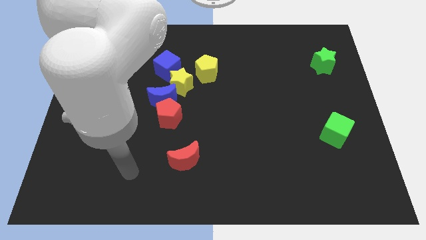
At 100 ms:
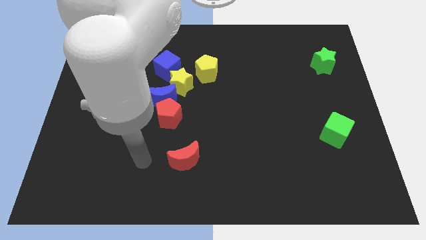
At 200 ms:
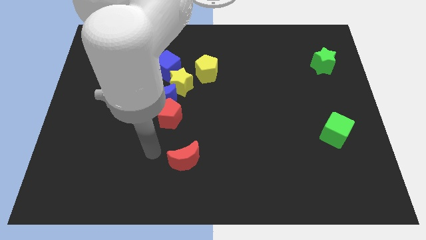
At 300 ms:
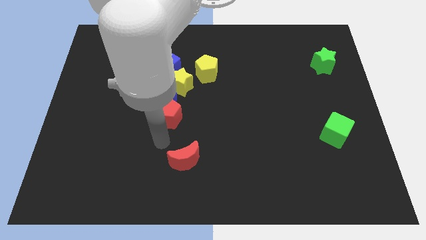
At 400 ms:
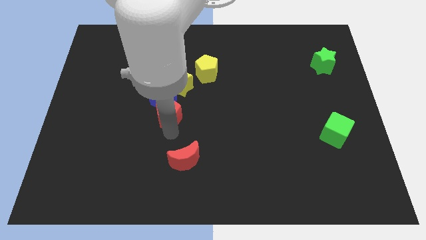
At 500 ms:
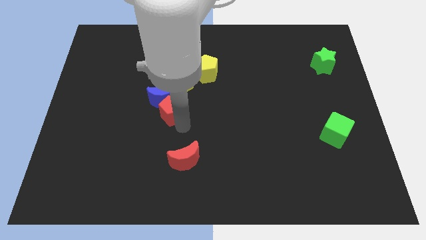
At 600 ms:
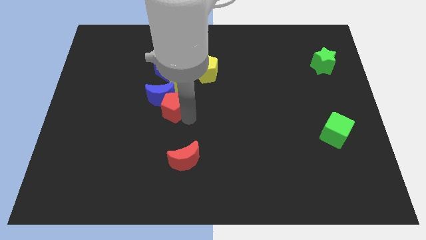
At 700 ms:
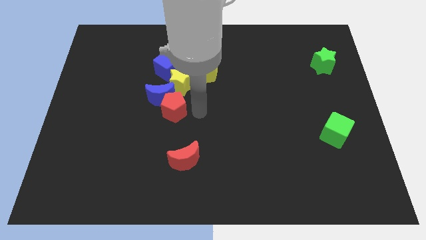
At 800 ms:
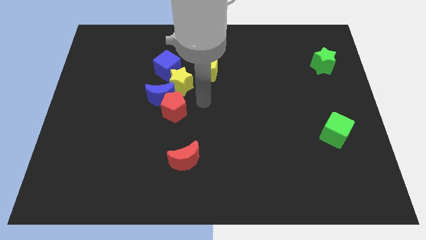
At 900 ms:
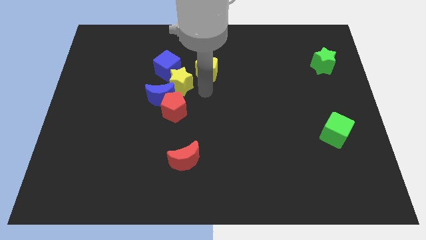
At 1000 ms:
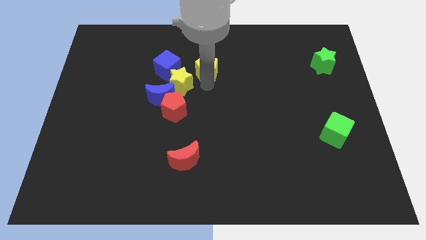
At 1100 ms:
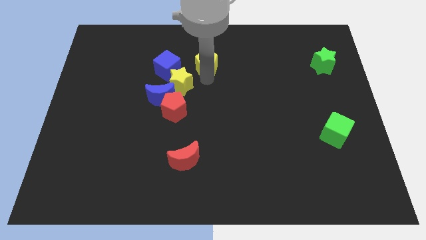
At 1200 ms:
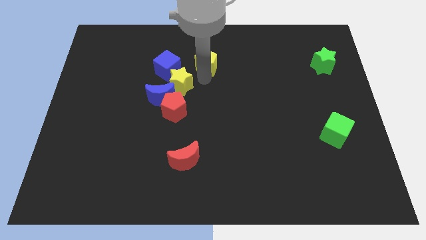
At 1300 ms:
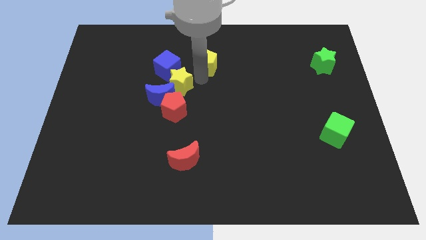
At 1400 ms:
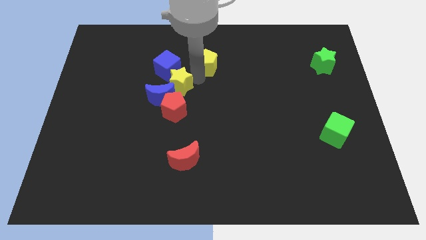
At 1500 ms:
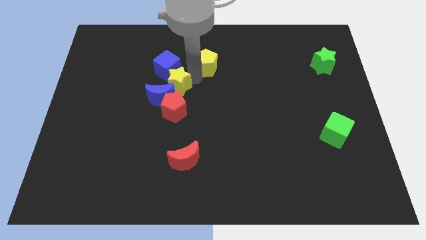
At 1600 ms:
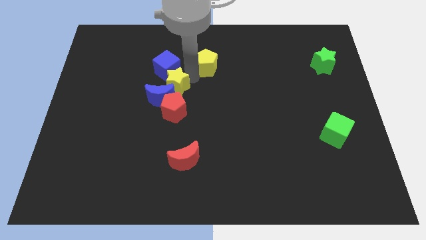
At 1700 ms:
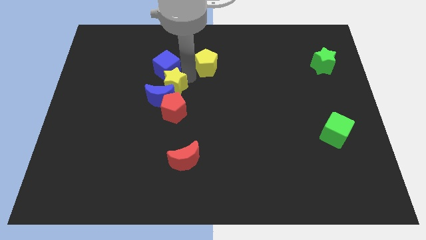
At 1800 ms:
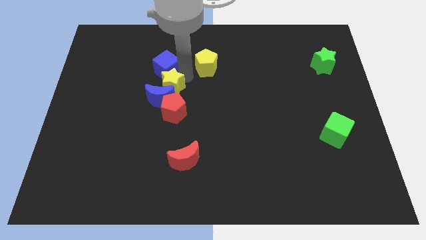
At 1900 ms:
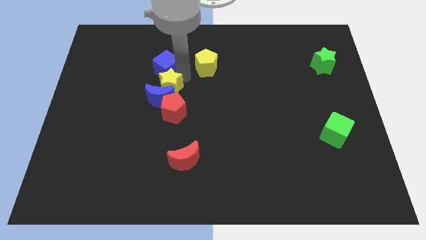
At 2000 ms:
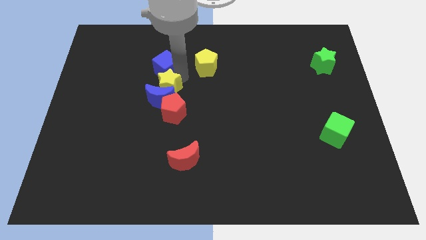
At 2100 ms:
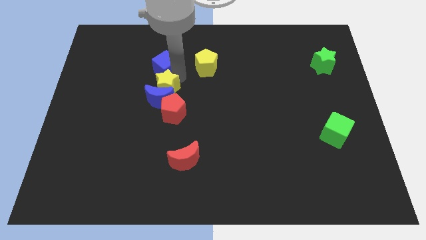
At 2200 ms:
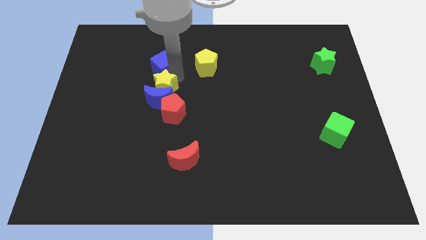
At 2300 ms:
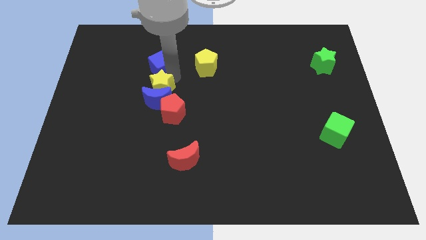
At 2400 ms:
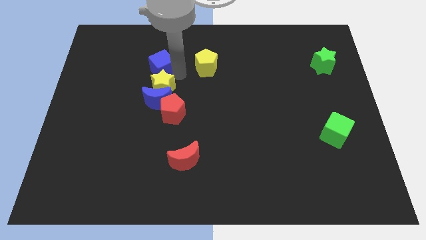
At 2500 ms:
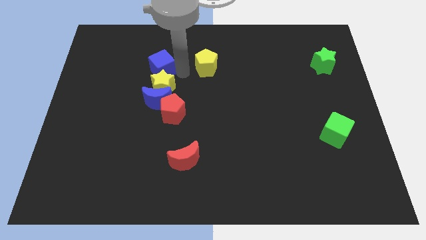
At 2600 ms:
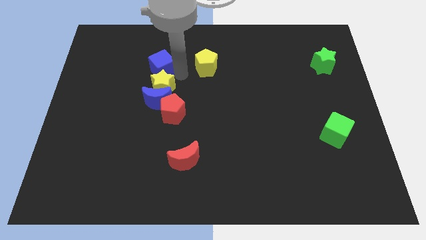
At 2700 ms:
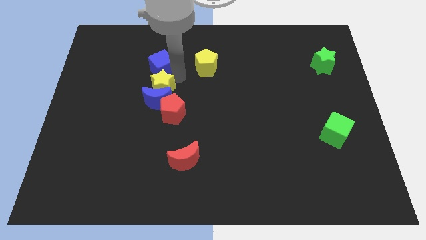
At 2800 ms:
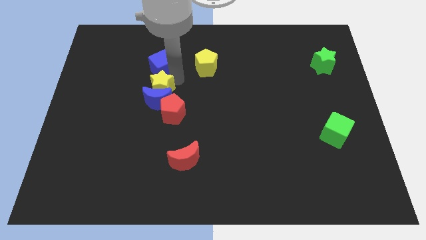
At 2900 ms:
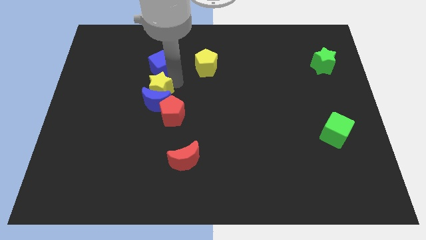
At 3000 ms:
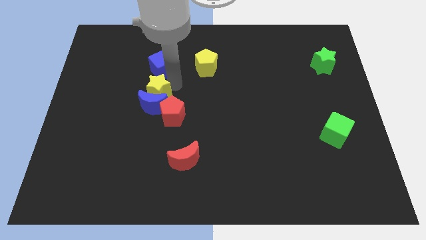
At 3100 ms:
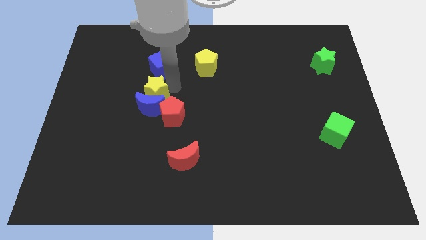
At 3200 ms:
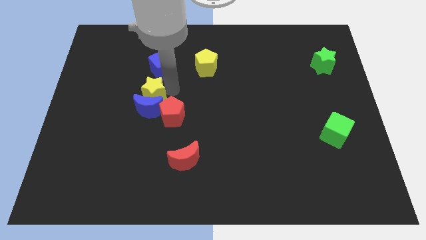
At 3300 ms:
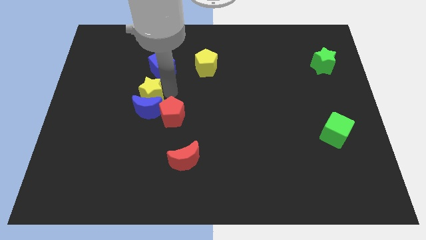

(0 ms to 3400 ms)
push the yellow star a little down and left

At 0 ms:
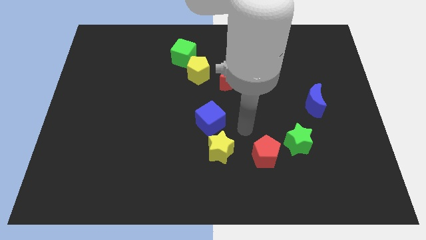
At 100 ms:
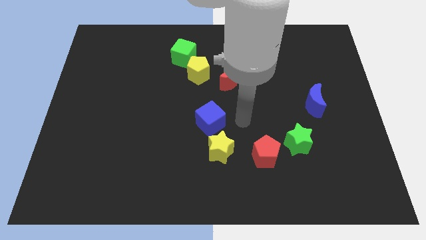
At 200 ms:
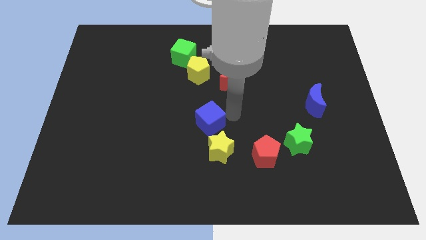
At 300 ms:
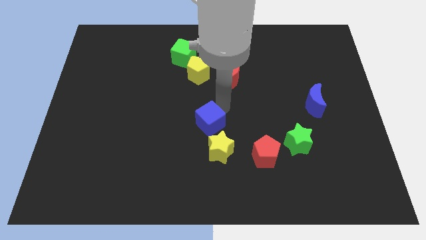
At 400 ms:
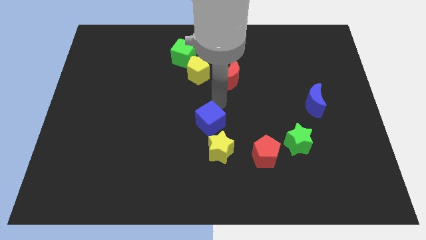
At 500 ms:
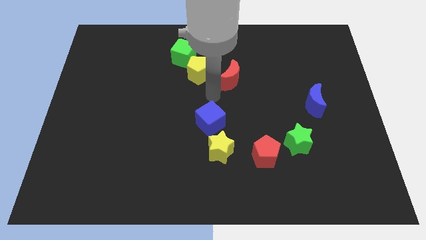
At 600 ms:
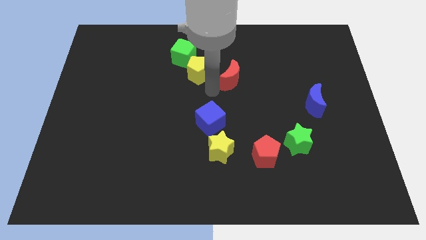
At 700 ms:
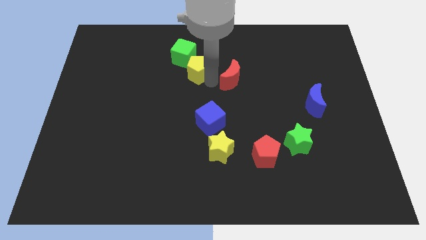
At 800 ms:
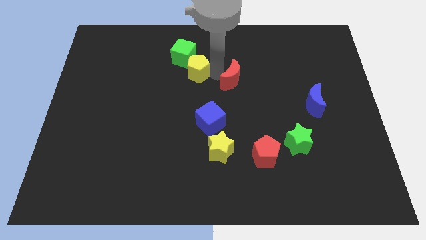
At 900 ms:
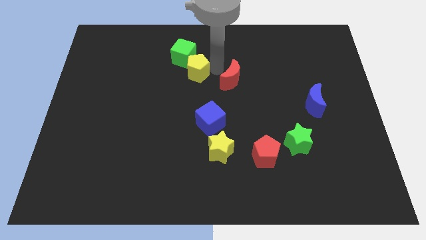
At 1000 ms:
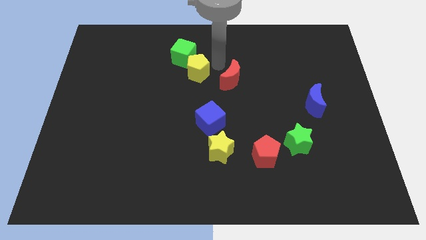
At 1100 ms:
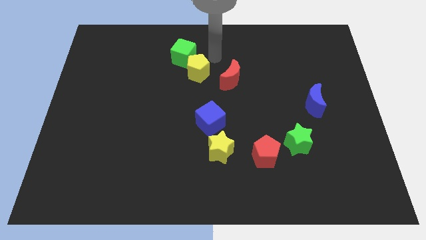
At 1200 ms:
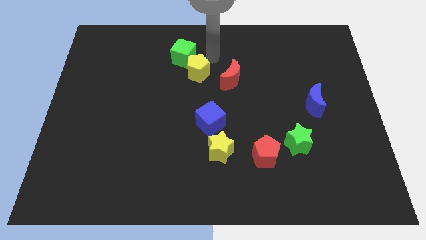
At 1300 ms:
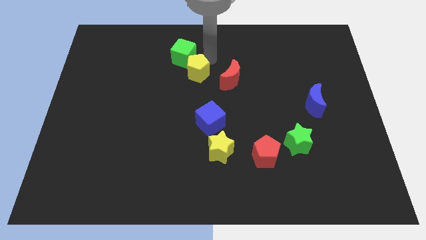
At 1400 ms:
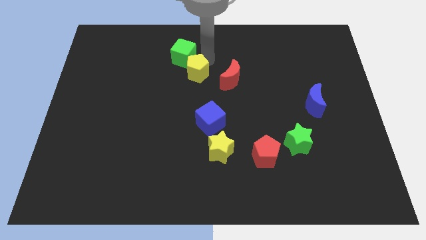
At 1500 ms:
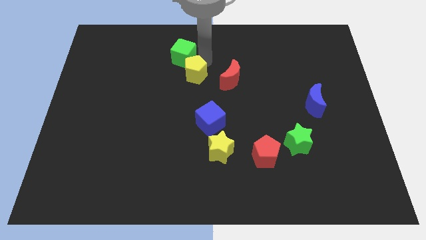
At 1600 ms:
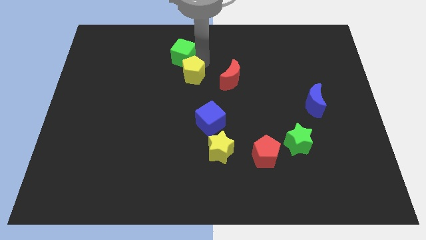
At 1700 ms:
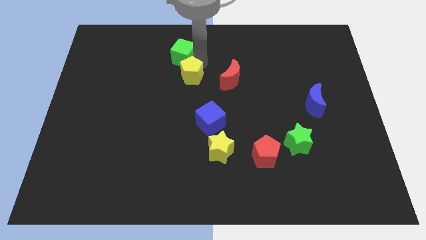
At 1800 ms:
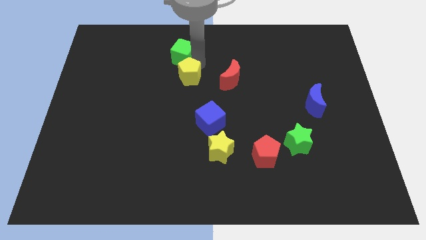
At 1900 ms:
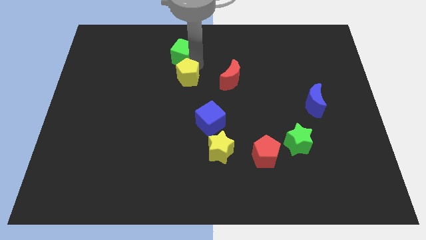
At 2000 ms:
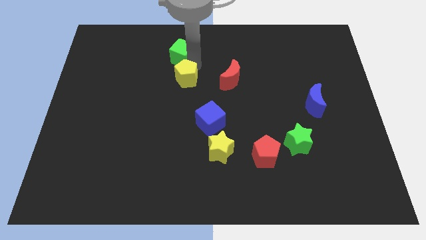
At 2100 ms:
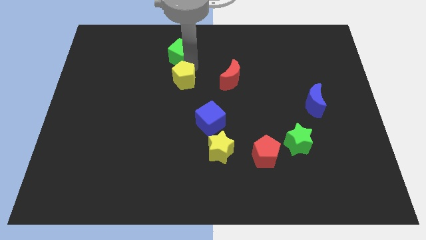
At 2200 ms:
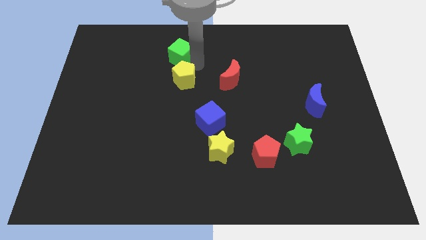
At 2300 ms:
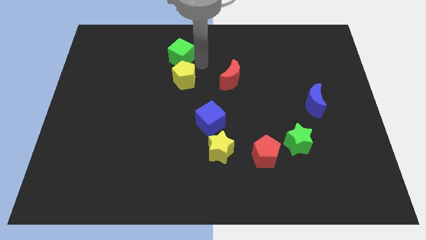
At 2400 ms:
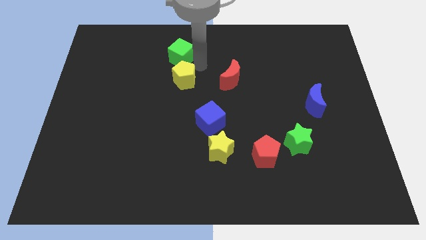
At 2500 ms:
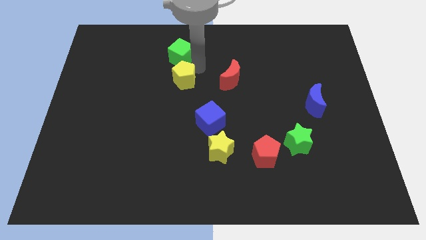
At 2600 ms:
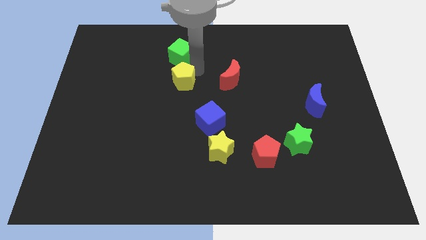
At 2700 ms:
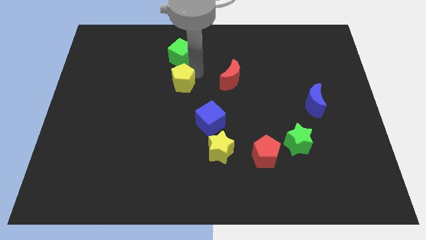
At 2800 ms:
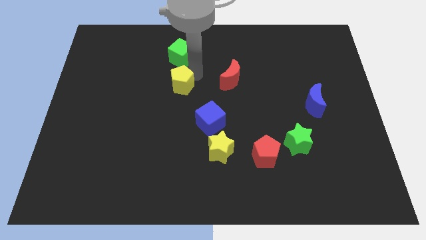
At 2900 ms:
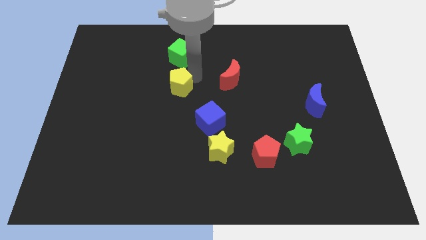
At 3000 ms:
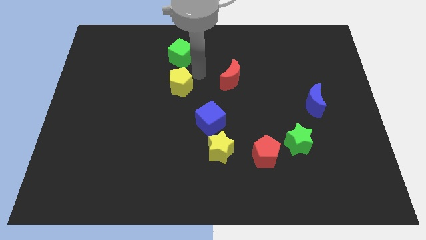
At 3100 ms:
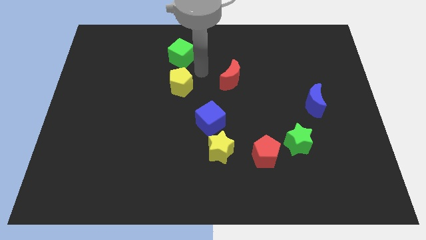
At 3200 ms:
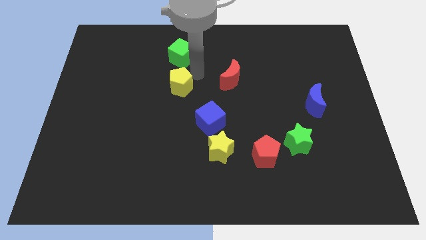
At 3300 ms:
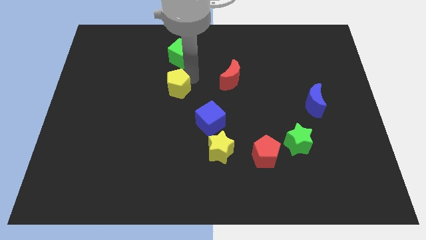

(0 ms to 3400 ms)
move the yellow pentagon down and then left slightly

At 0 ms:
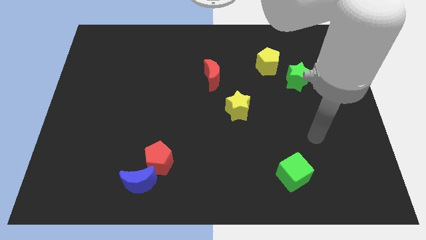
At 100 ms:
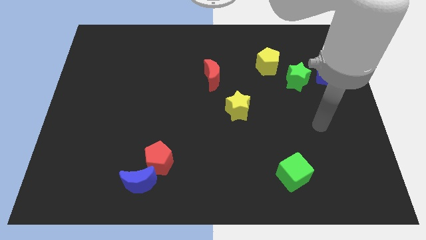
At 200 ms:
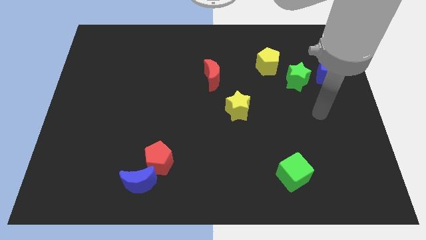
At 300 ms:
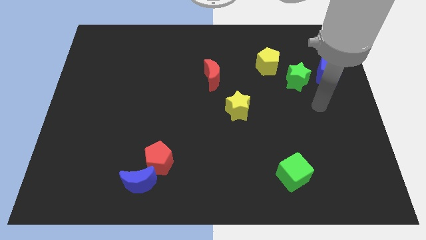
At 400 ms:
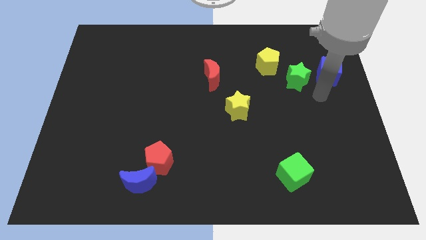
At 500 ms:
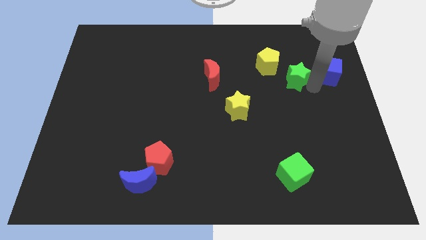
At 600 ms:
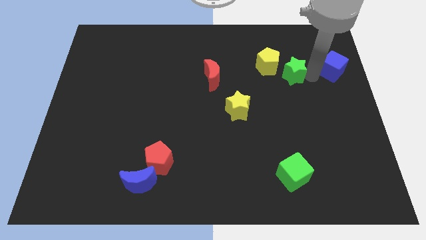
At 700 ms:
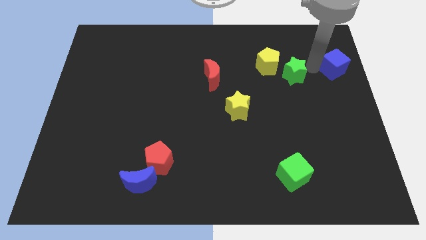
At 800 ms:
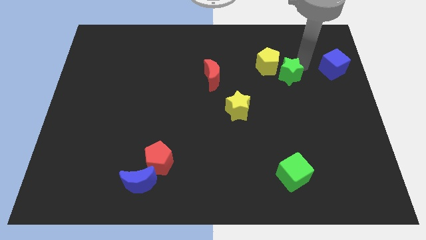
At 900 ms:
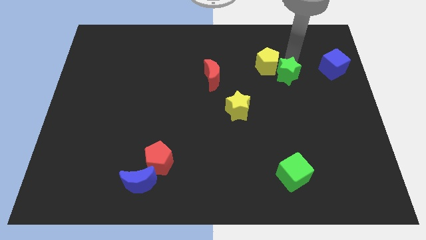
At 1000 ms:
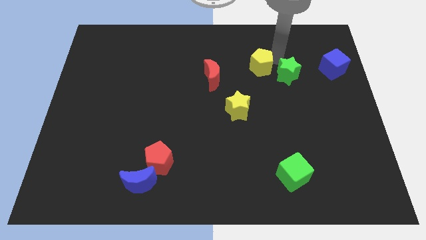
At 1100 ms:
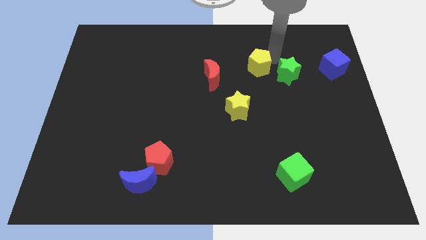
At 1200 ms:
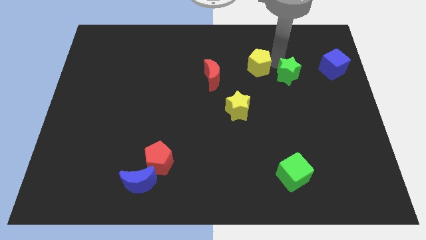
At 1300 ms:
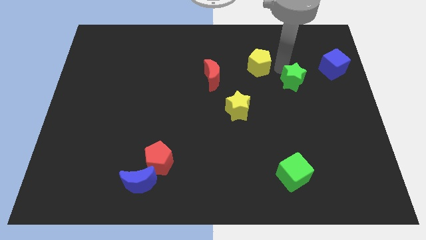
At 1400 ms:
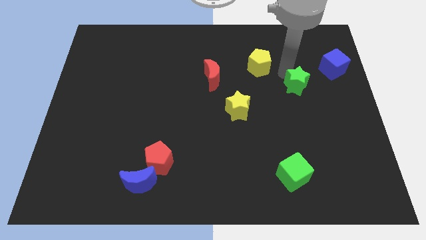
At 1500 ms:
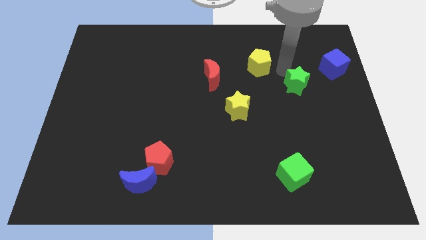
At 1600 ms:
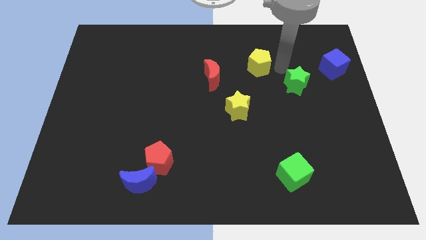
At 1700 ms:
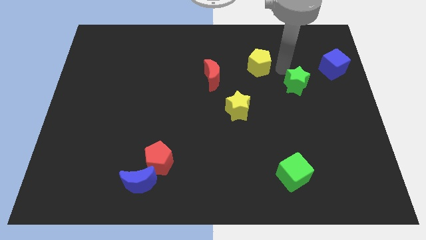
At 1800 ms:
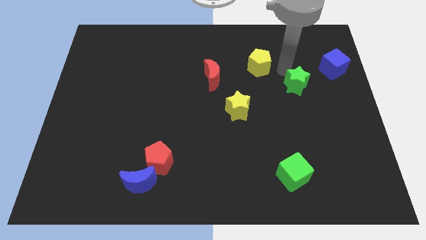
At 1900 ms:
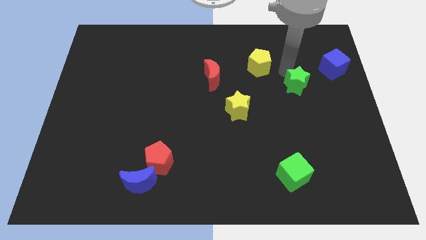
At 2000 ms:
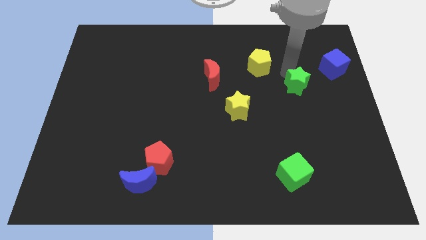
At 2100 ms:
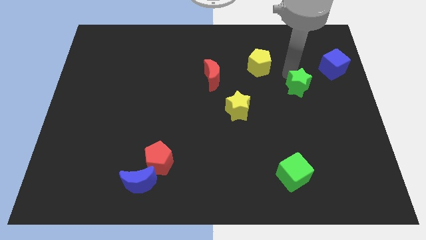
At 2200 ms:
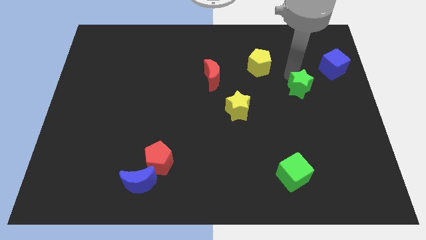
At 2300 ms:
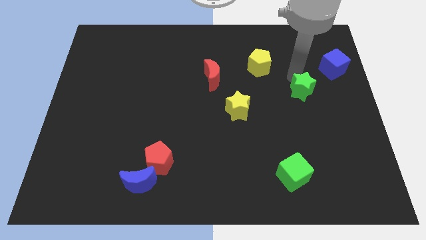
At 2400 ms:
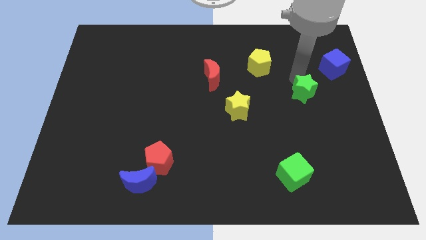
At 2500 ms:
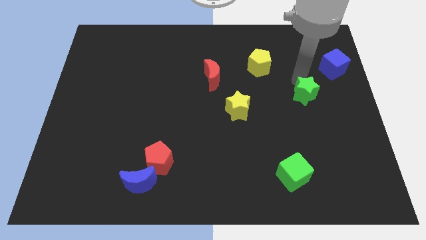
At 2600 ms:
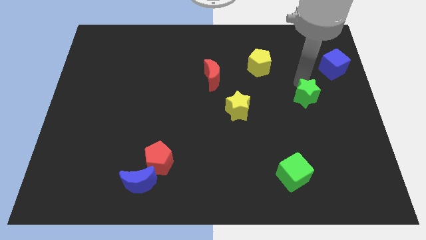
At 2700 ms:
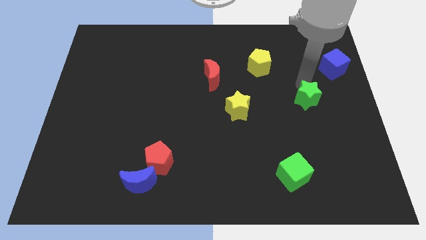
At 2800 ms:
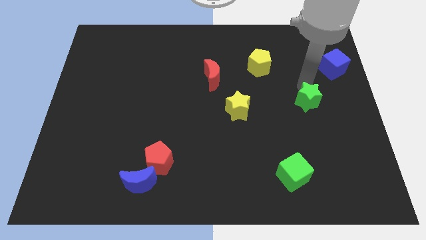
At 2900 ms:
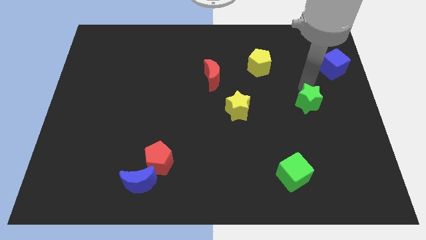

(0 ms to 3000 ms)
slightly slide the green star down
